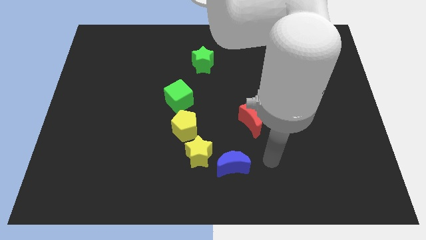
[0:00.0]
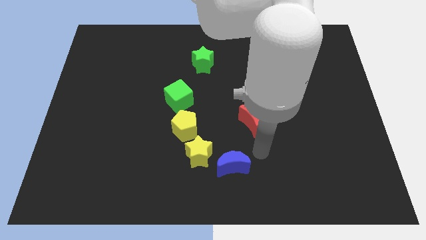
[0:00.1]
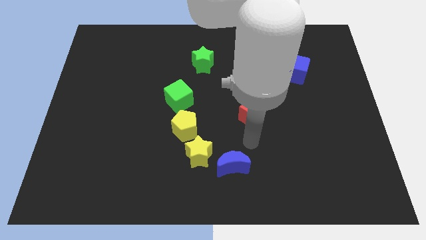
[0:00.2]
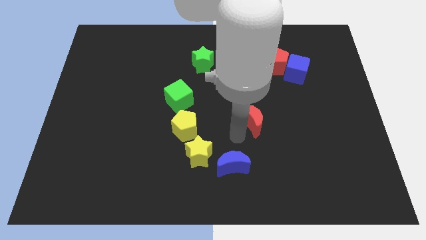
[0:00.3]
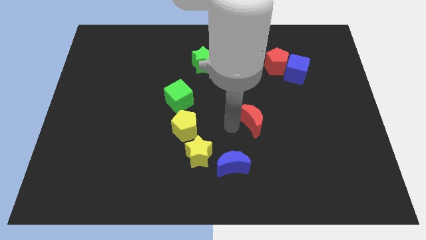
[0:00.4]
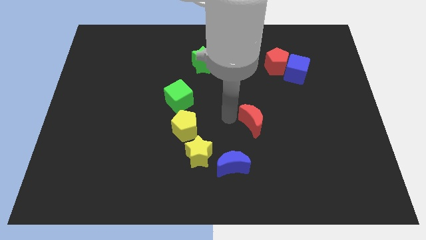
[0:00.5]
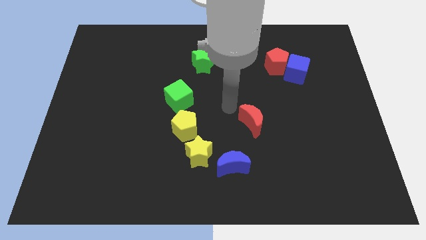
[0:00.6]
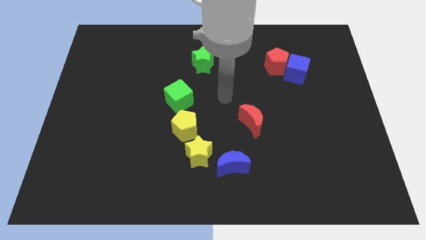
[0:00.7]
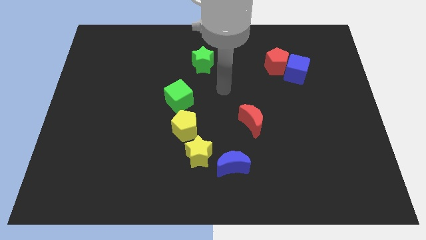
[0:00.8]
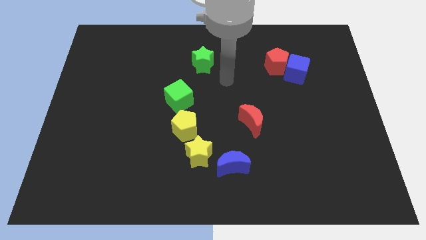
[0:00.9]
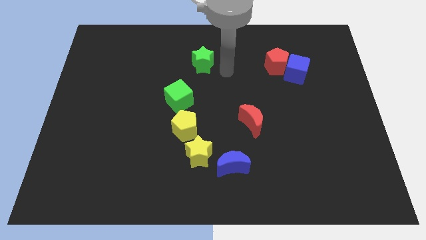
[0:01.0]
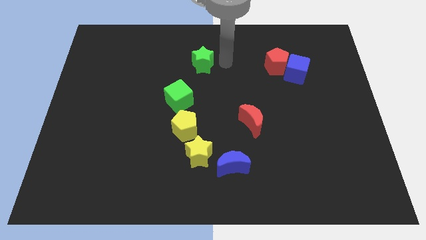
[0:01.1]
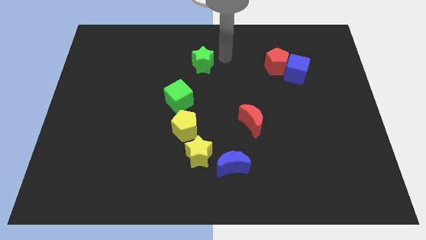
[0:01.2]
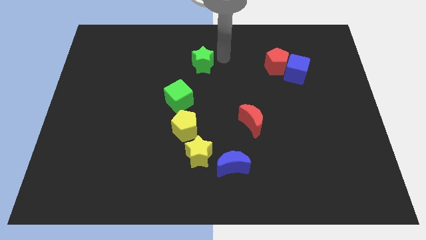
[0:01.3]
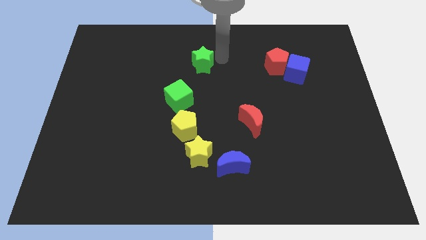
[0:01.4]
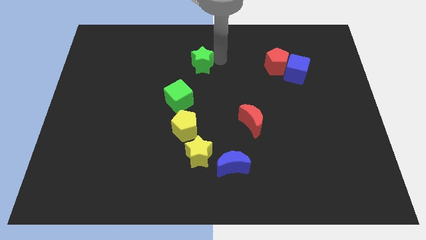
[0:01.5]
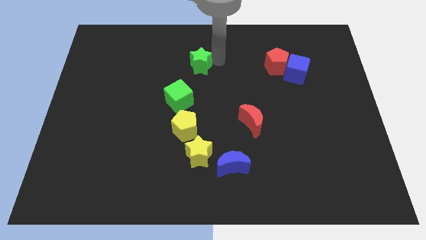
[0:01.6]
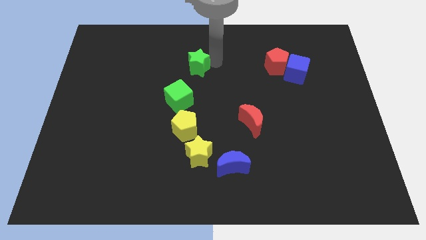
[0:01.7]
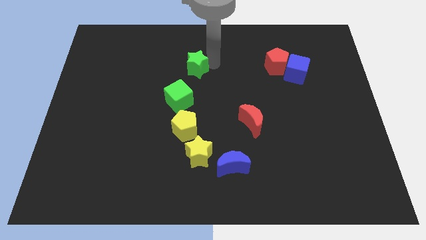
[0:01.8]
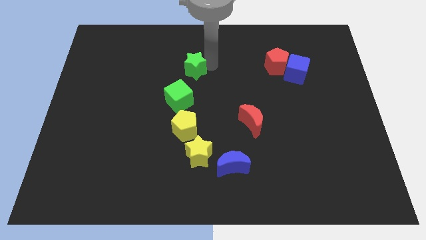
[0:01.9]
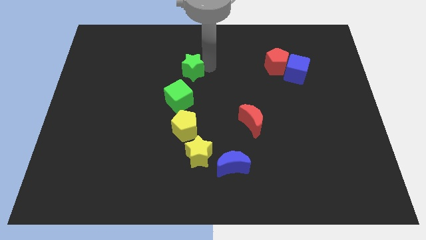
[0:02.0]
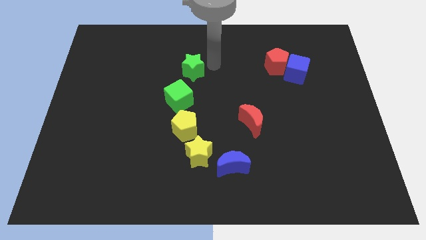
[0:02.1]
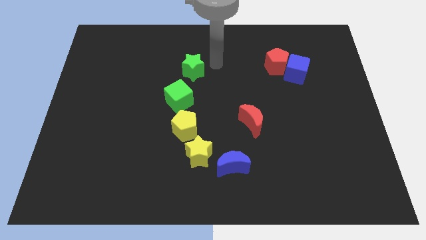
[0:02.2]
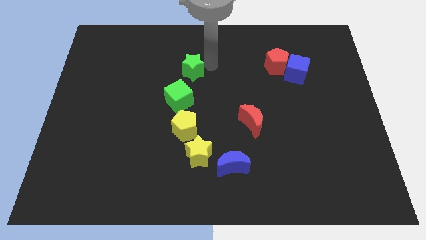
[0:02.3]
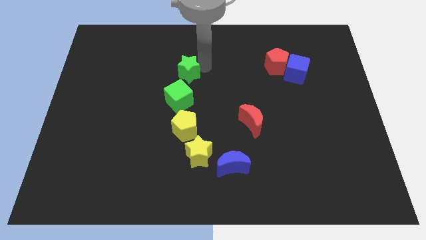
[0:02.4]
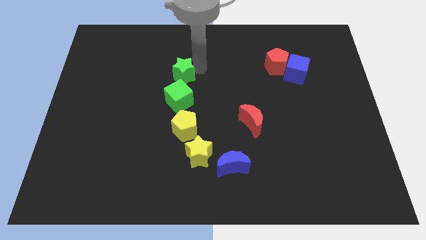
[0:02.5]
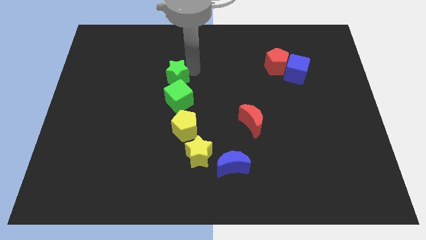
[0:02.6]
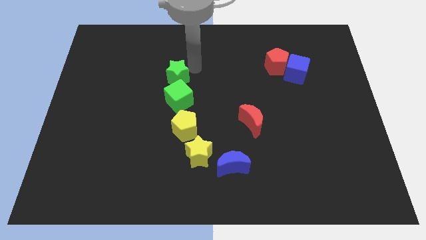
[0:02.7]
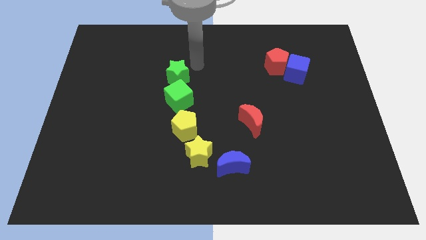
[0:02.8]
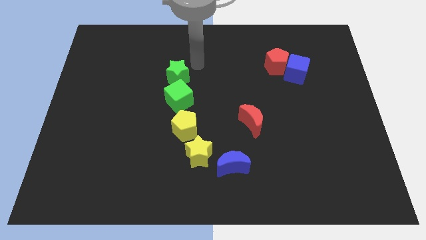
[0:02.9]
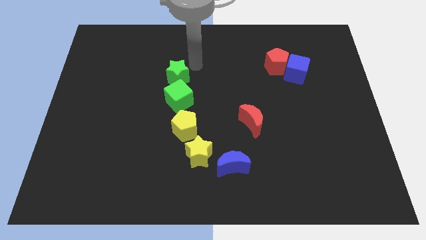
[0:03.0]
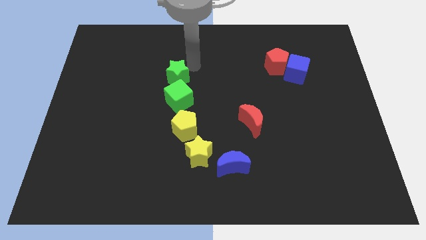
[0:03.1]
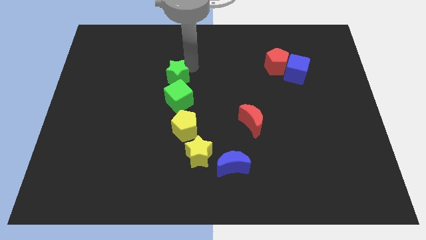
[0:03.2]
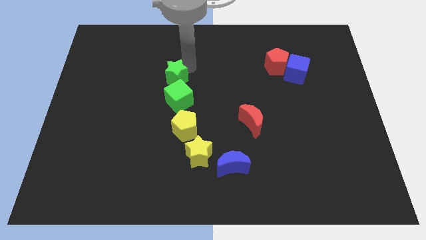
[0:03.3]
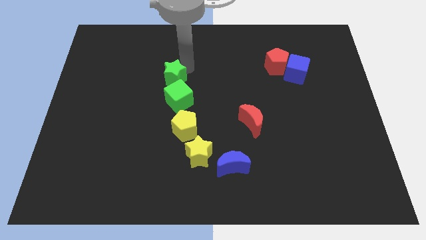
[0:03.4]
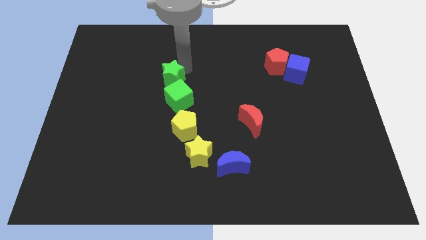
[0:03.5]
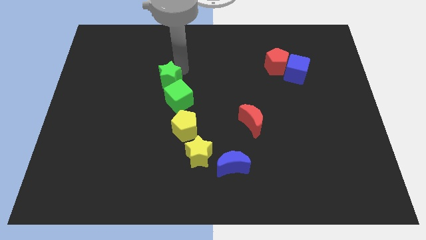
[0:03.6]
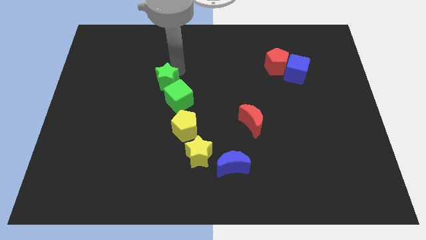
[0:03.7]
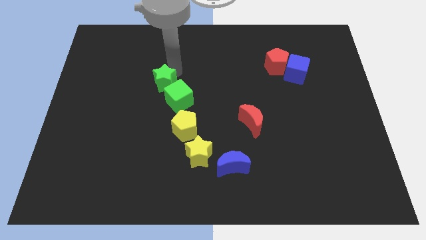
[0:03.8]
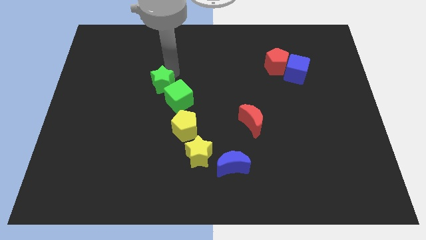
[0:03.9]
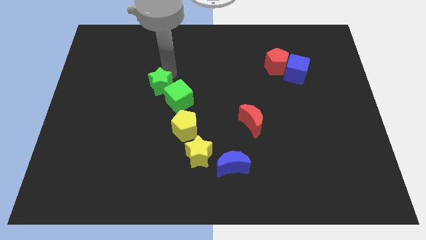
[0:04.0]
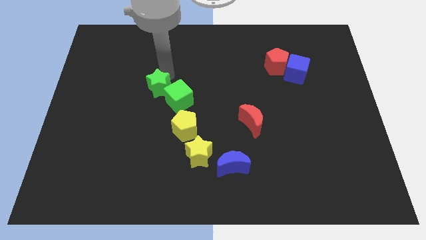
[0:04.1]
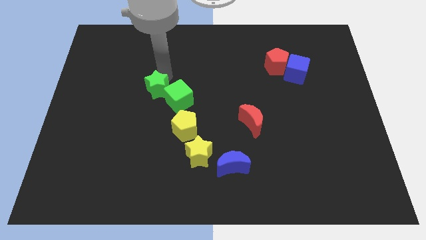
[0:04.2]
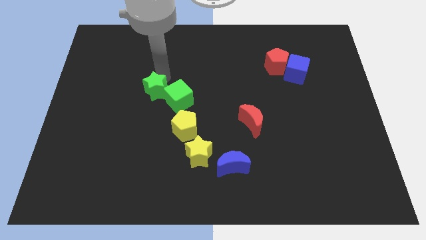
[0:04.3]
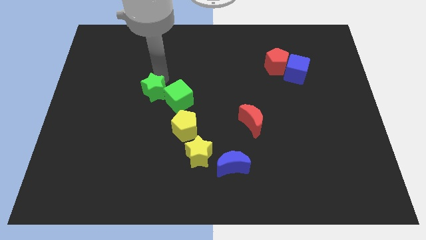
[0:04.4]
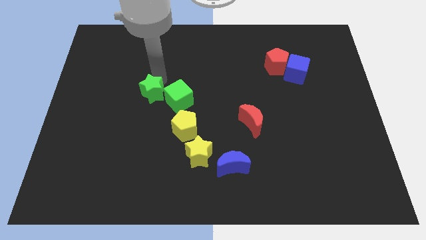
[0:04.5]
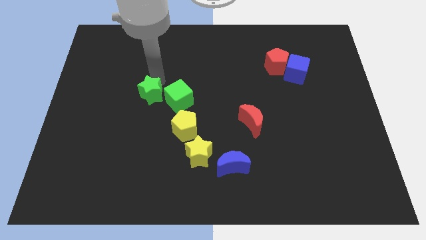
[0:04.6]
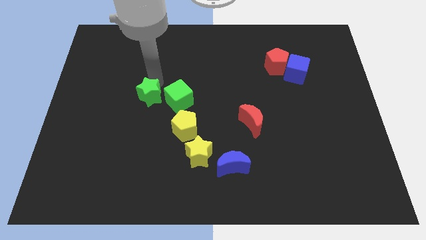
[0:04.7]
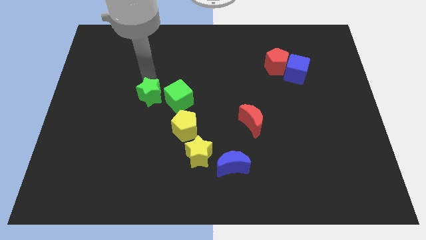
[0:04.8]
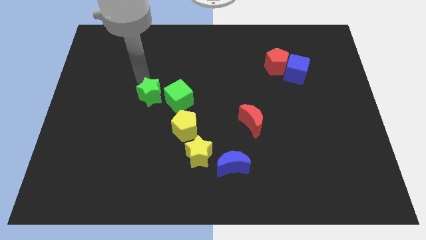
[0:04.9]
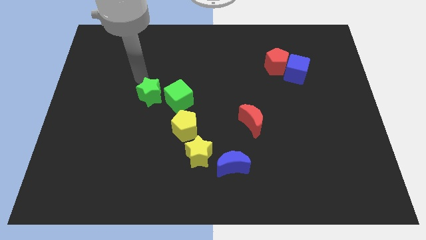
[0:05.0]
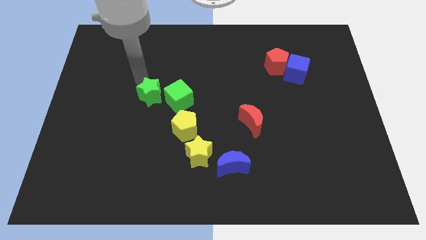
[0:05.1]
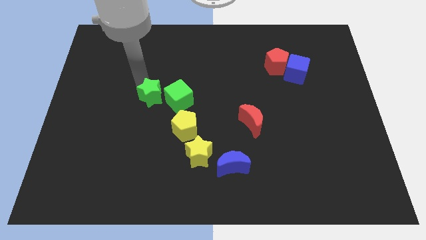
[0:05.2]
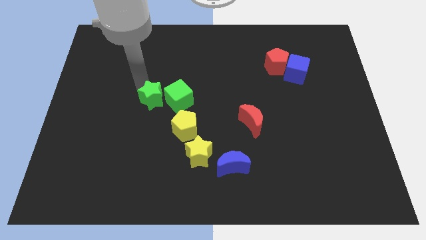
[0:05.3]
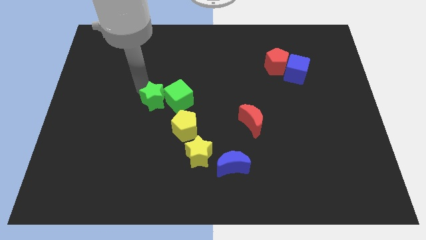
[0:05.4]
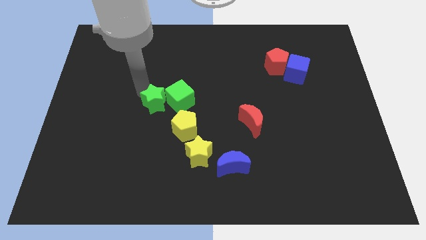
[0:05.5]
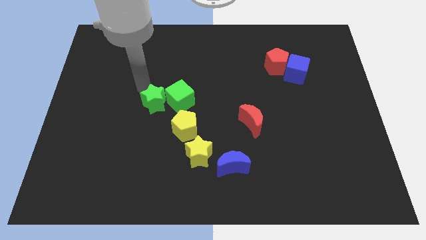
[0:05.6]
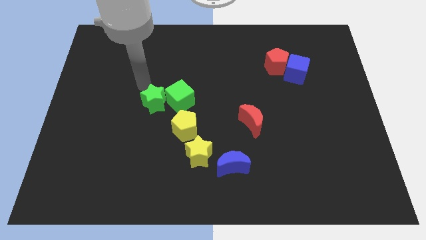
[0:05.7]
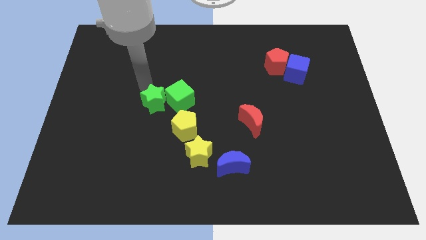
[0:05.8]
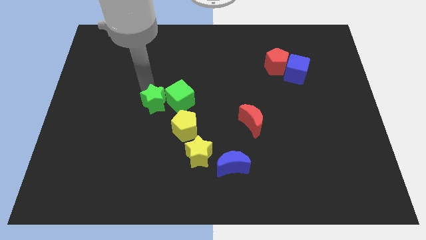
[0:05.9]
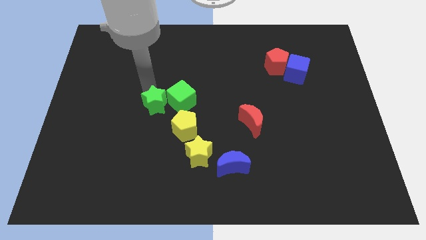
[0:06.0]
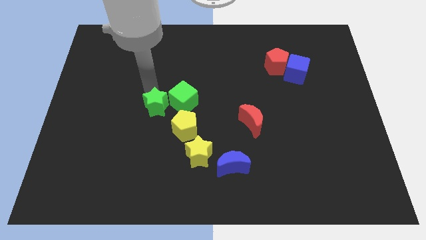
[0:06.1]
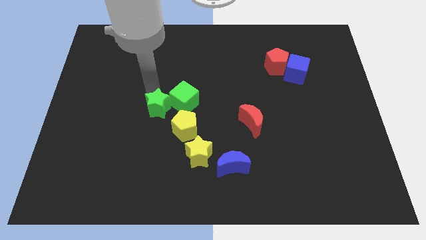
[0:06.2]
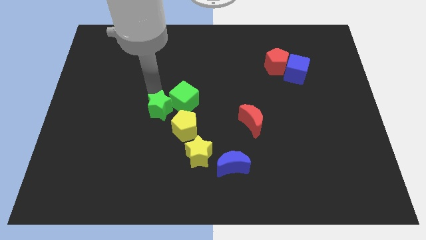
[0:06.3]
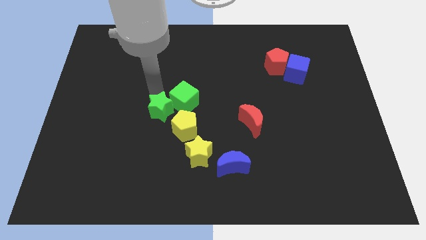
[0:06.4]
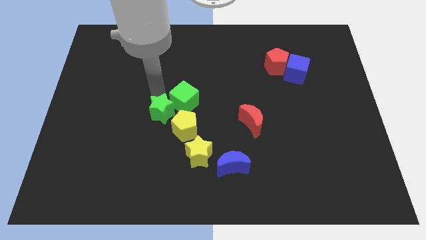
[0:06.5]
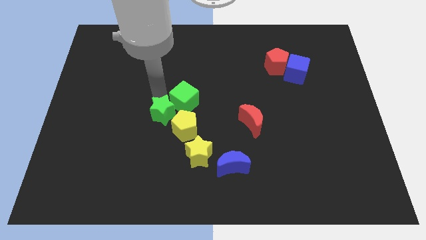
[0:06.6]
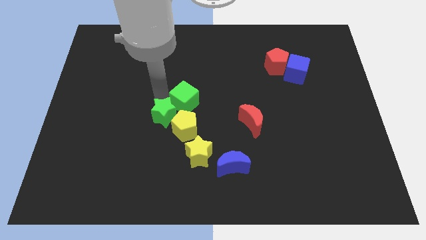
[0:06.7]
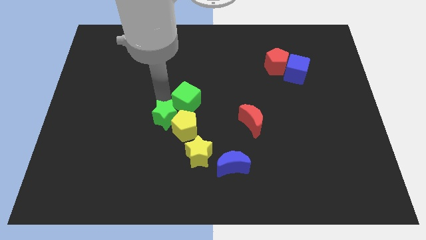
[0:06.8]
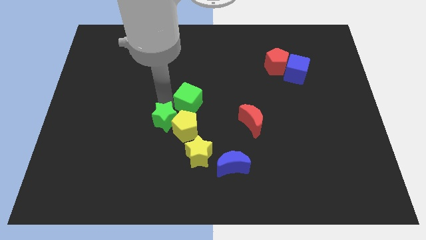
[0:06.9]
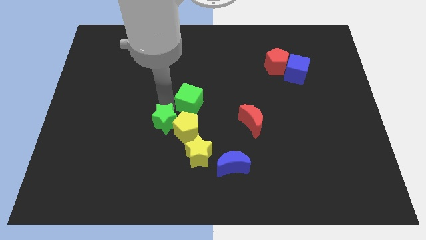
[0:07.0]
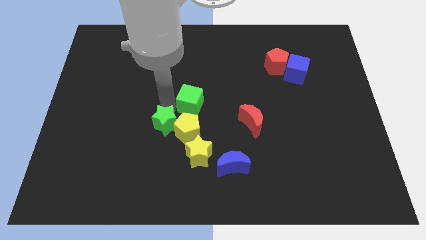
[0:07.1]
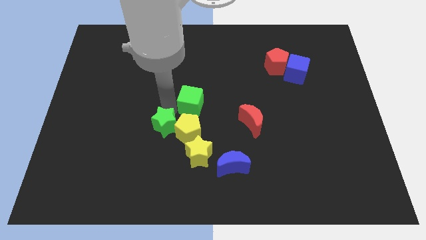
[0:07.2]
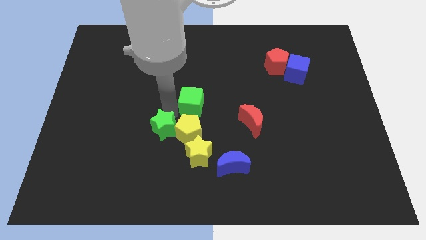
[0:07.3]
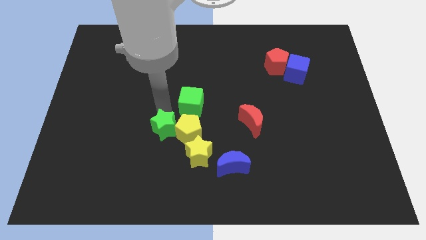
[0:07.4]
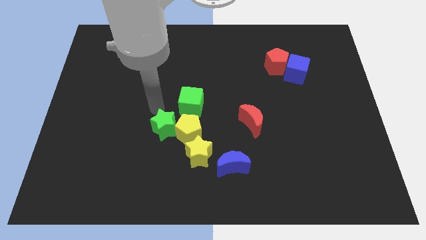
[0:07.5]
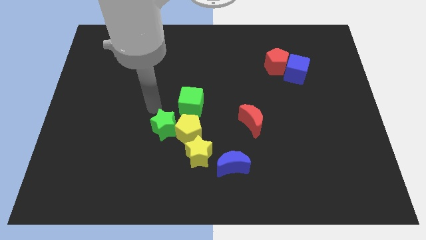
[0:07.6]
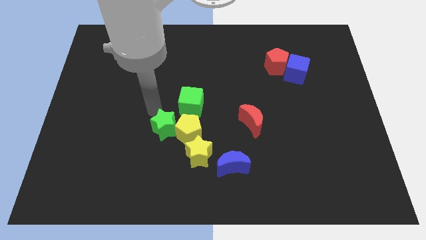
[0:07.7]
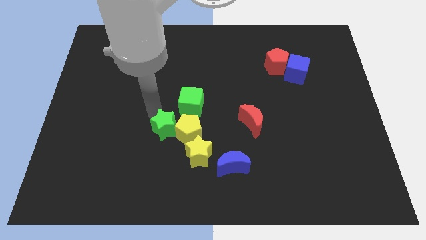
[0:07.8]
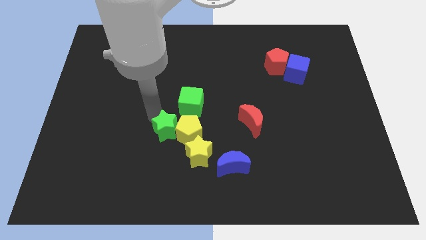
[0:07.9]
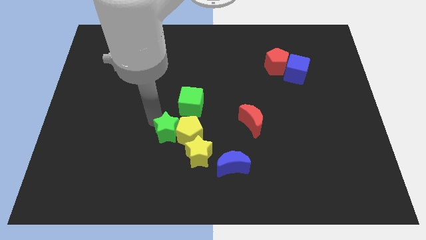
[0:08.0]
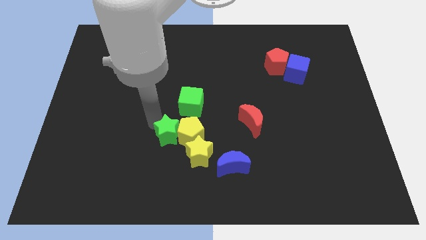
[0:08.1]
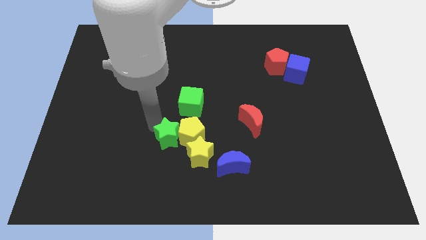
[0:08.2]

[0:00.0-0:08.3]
slide the green star downwards
